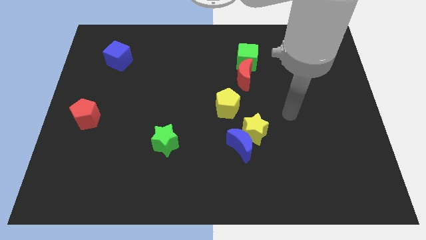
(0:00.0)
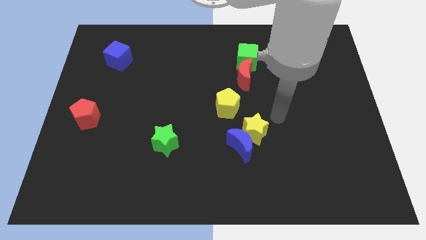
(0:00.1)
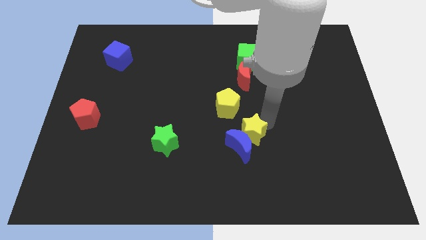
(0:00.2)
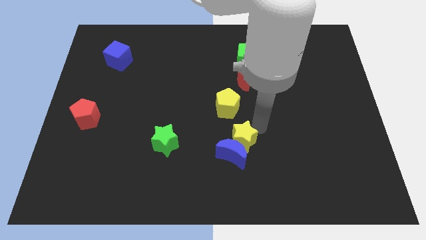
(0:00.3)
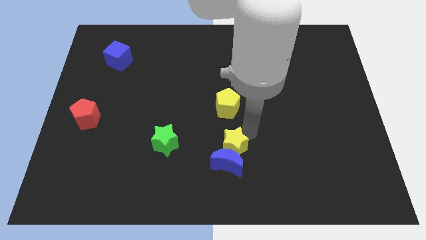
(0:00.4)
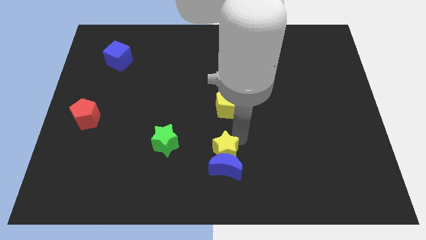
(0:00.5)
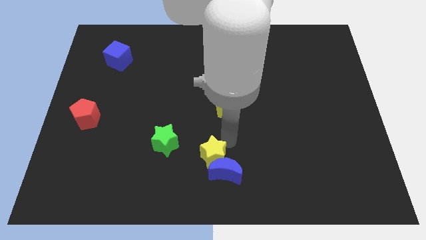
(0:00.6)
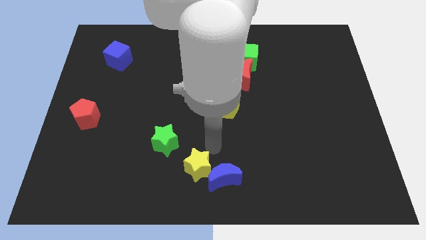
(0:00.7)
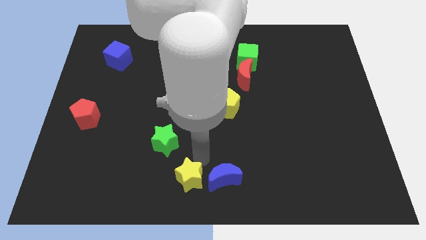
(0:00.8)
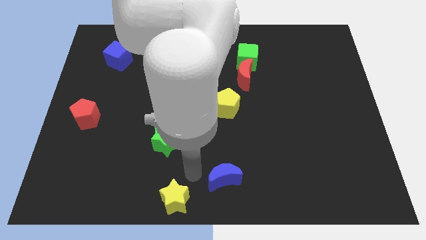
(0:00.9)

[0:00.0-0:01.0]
separate the blue moon from the yellow star

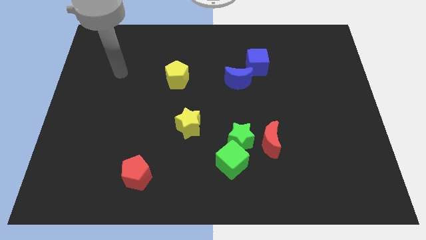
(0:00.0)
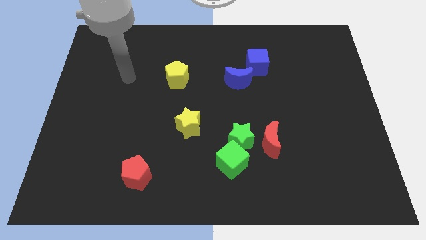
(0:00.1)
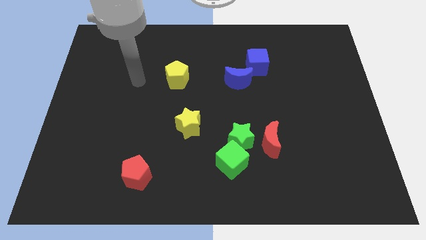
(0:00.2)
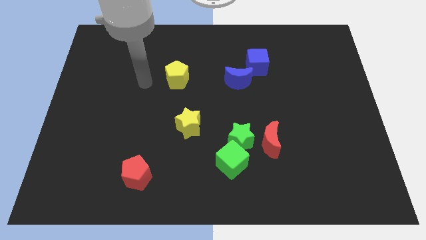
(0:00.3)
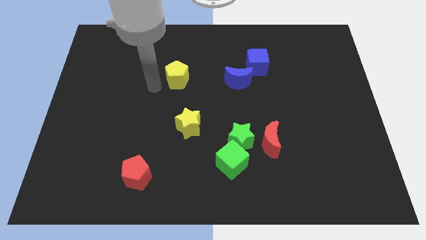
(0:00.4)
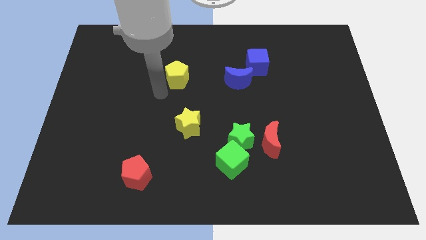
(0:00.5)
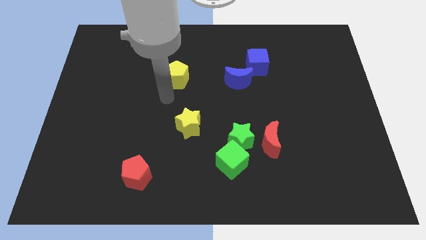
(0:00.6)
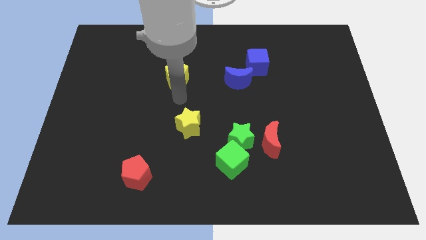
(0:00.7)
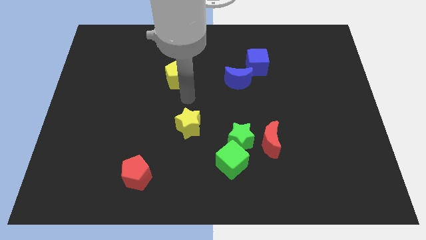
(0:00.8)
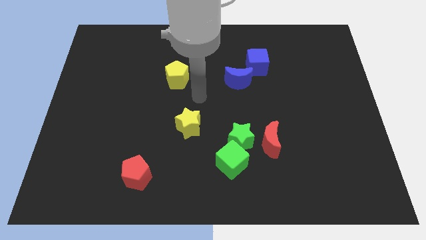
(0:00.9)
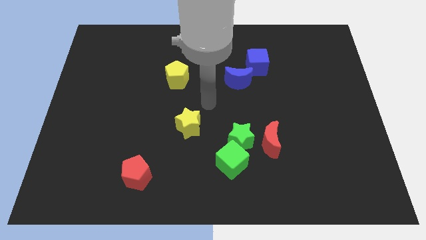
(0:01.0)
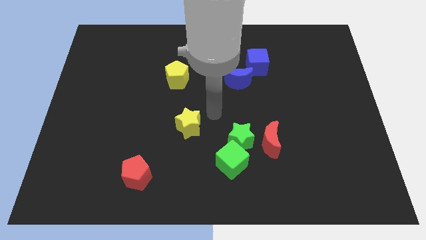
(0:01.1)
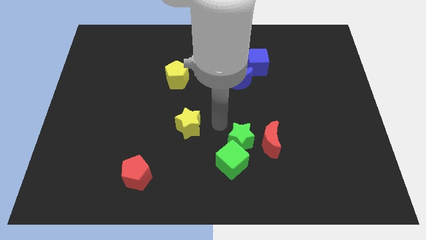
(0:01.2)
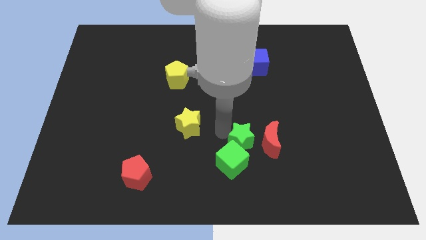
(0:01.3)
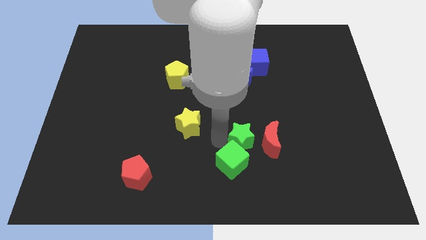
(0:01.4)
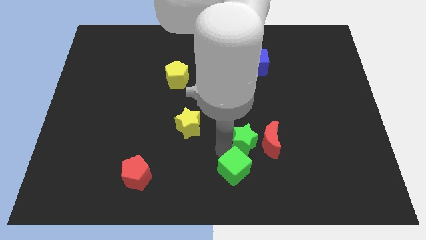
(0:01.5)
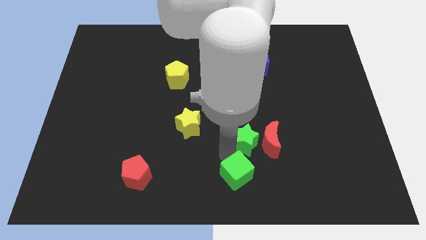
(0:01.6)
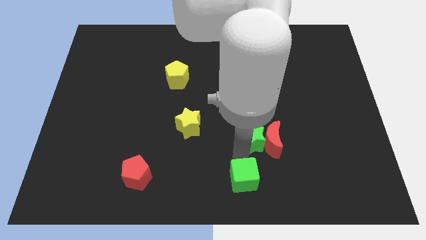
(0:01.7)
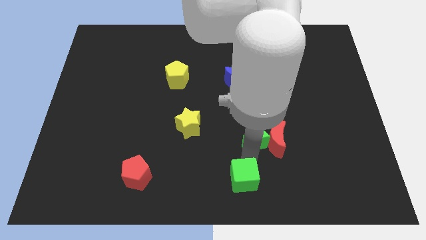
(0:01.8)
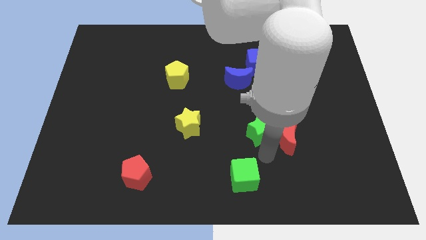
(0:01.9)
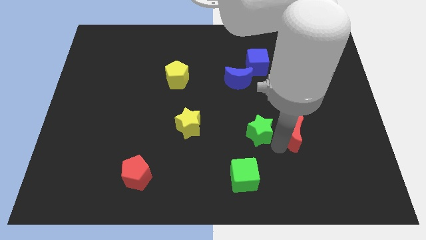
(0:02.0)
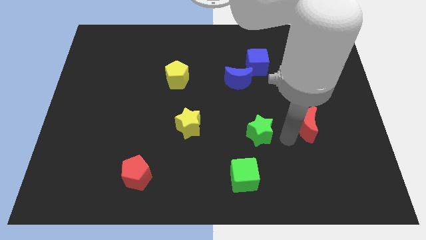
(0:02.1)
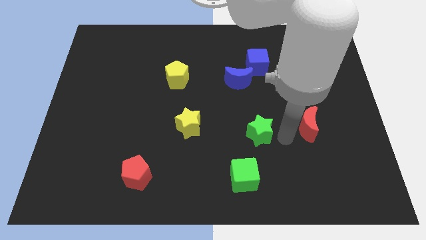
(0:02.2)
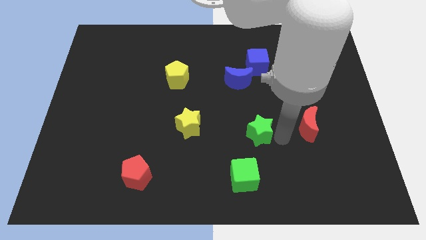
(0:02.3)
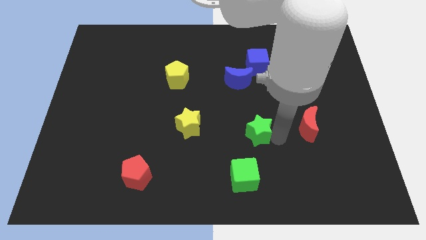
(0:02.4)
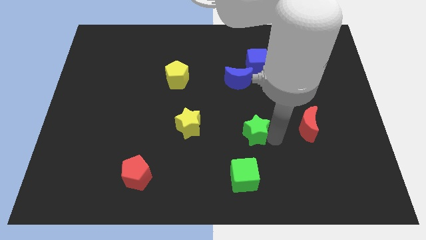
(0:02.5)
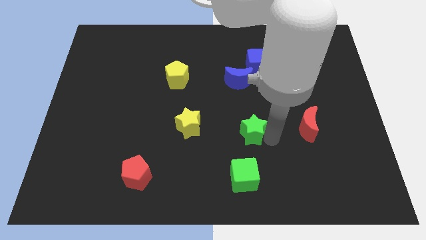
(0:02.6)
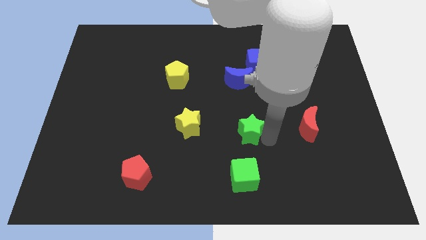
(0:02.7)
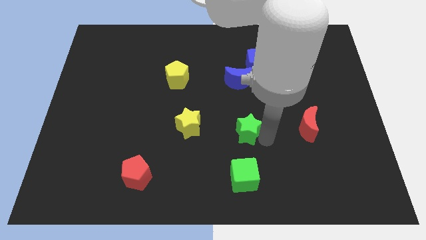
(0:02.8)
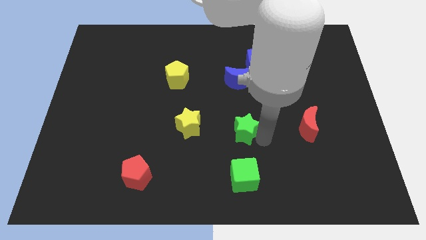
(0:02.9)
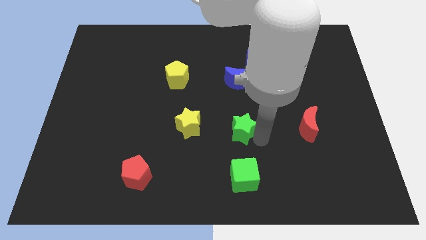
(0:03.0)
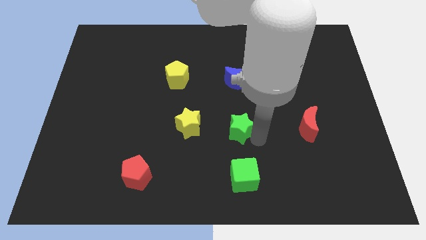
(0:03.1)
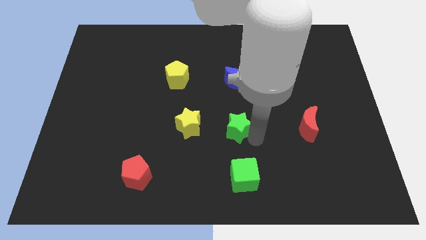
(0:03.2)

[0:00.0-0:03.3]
move the green star away from the green cube and red moon

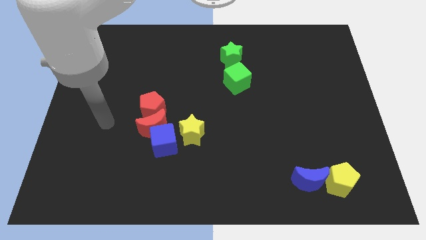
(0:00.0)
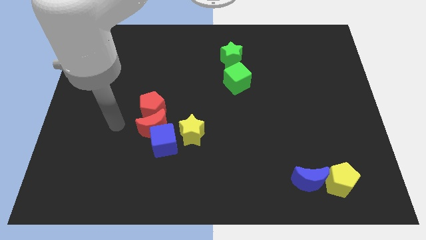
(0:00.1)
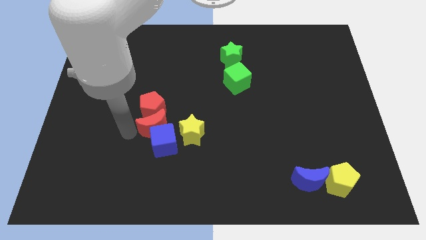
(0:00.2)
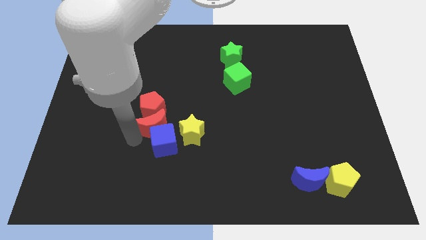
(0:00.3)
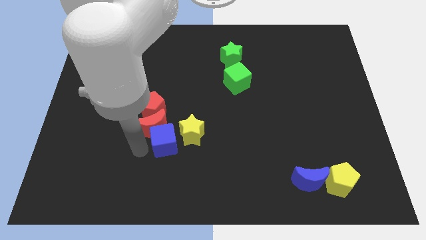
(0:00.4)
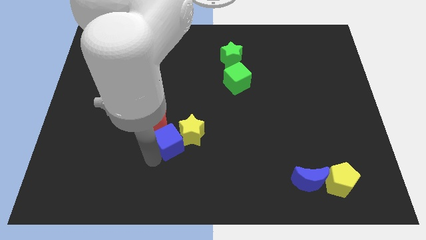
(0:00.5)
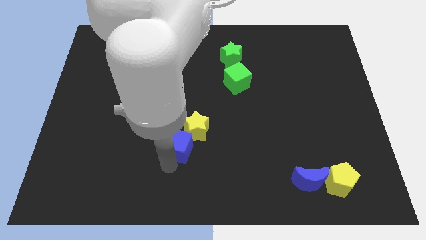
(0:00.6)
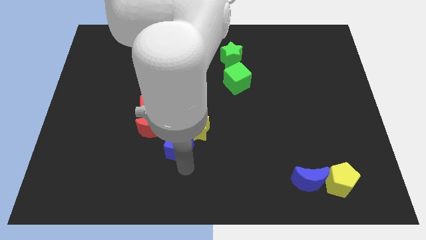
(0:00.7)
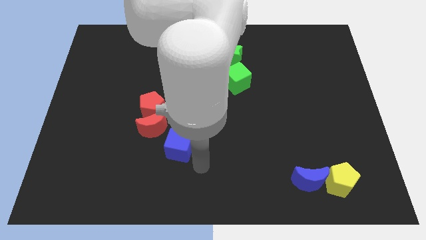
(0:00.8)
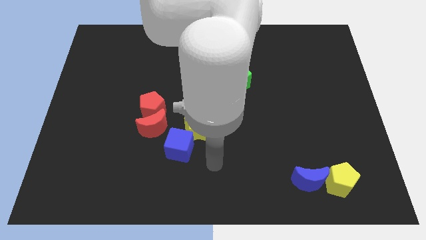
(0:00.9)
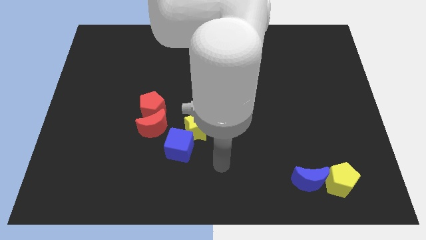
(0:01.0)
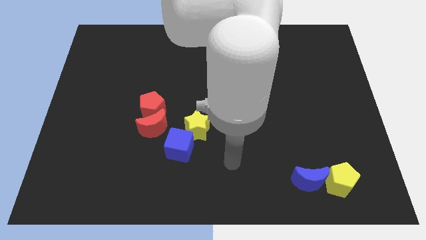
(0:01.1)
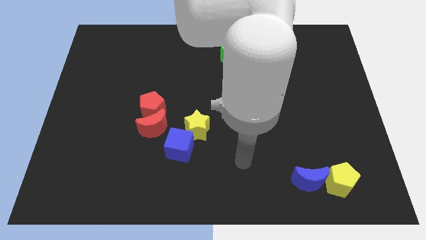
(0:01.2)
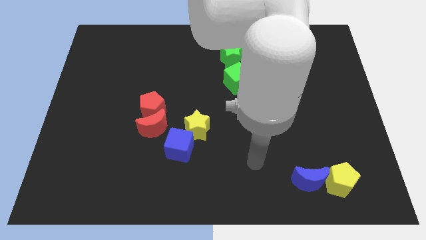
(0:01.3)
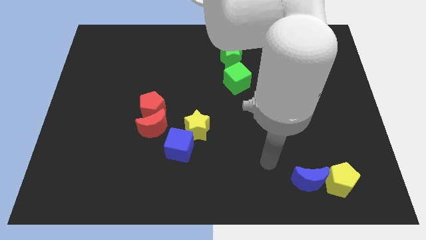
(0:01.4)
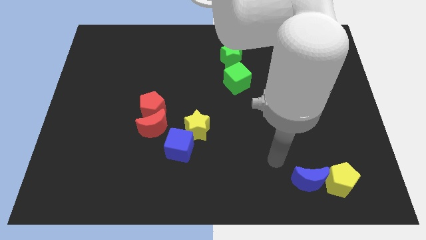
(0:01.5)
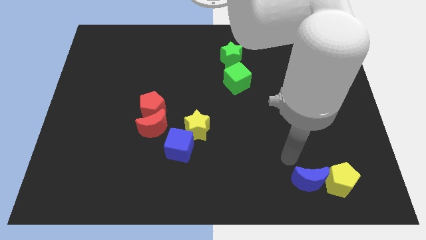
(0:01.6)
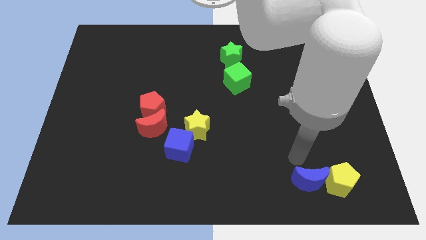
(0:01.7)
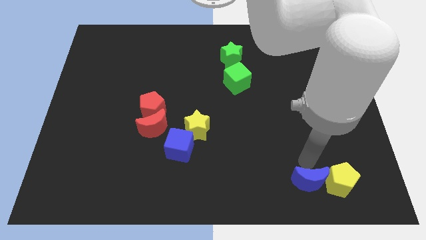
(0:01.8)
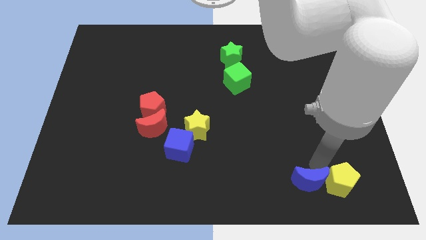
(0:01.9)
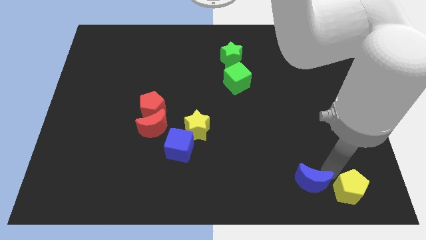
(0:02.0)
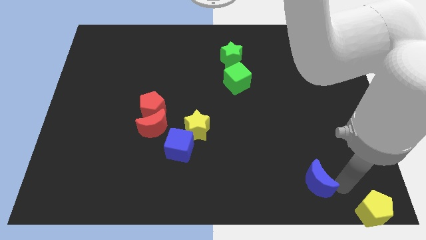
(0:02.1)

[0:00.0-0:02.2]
move the blue moon away from the yellow pentagon

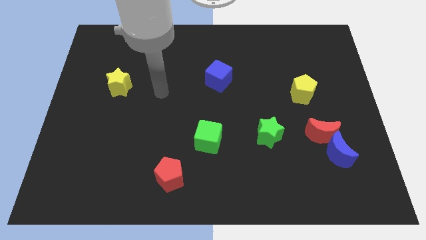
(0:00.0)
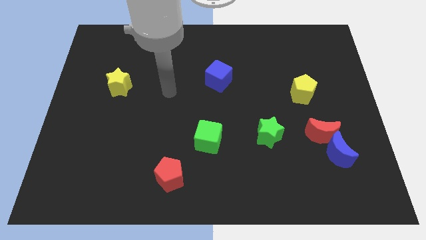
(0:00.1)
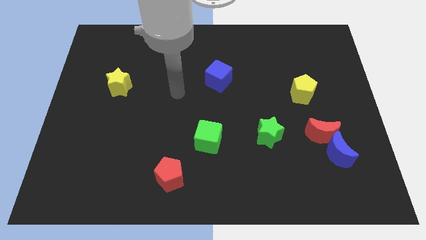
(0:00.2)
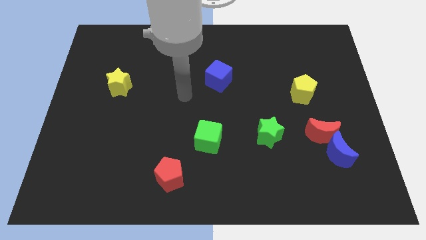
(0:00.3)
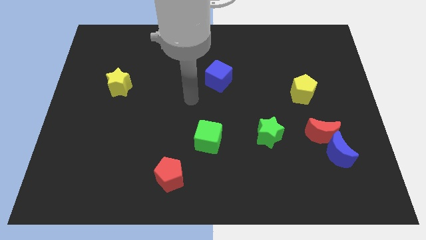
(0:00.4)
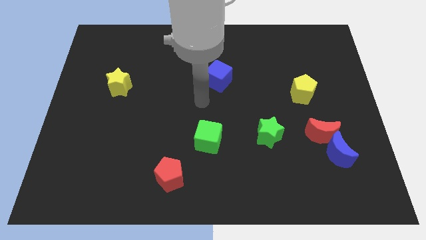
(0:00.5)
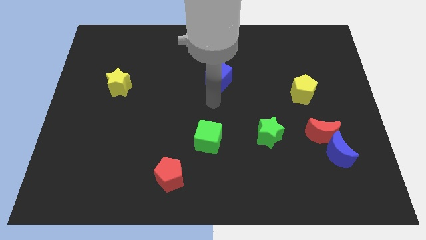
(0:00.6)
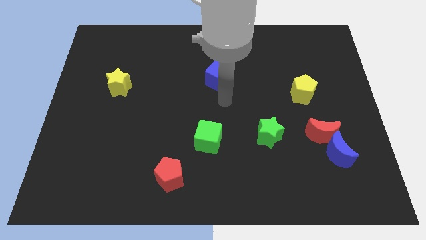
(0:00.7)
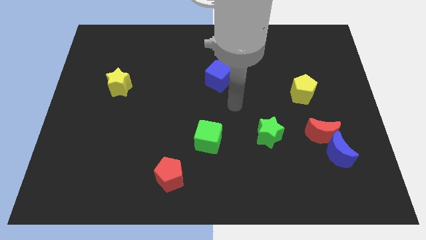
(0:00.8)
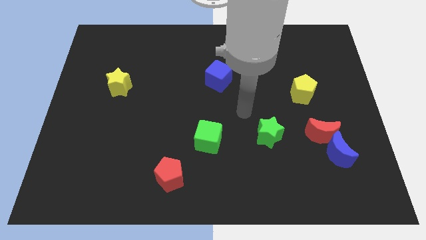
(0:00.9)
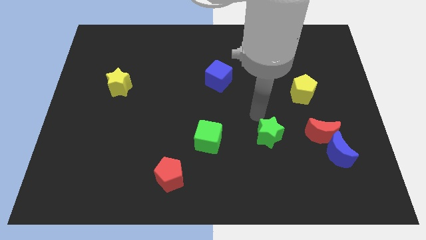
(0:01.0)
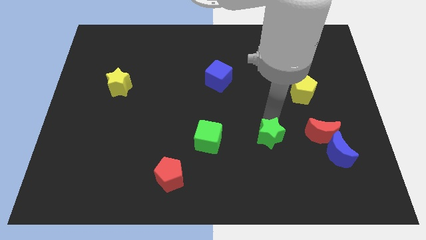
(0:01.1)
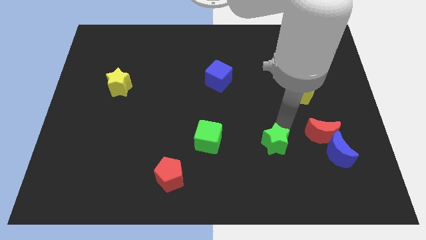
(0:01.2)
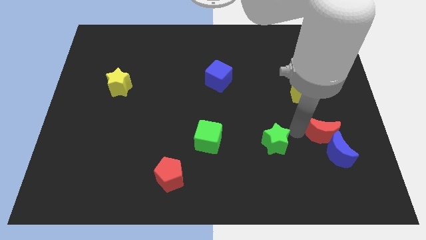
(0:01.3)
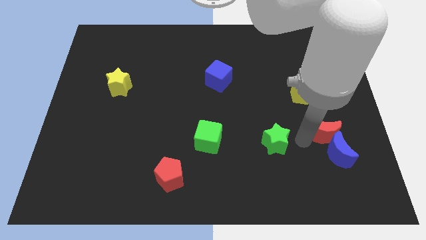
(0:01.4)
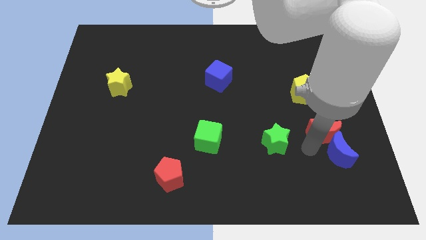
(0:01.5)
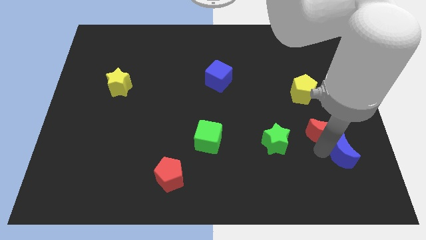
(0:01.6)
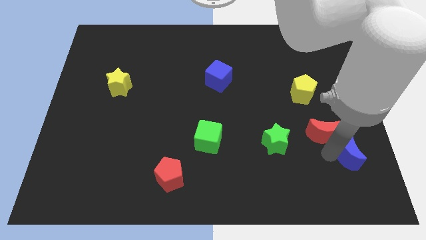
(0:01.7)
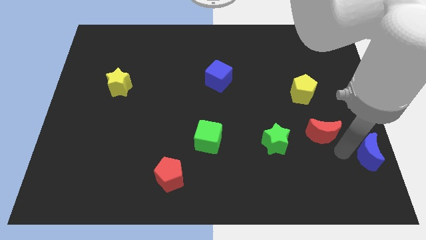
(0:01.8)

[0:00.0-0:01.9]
pull the red moon apart from the blue moon

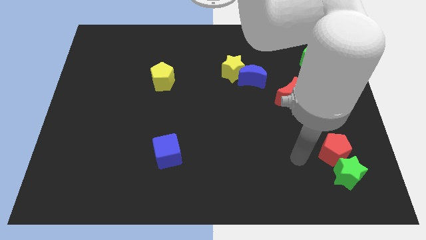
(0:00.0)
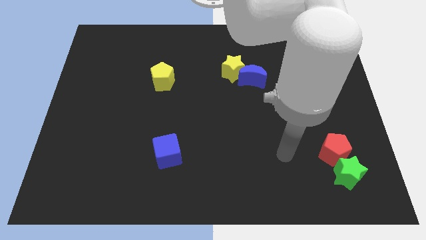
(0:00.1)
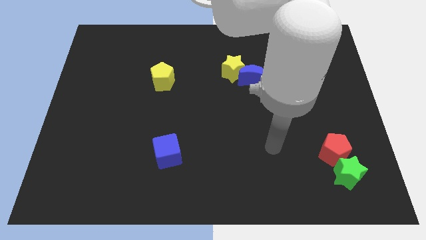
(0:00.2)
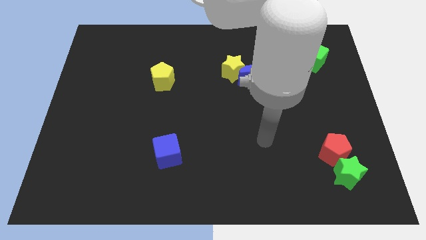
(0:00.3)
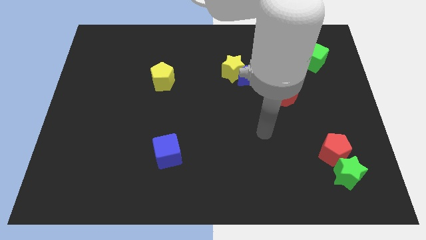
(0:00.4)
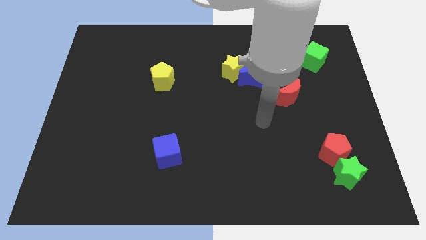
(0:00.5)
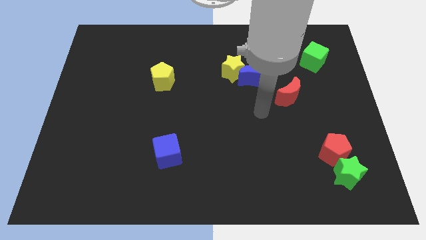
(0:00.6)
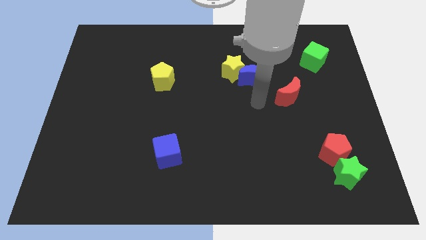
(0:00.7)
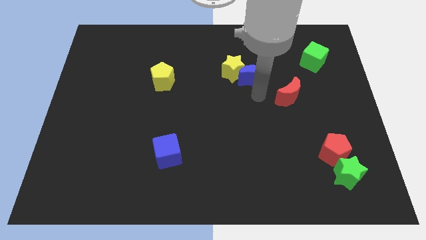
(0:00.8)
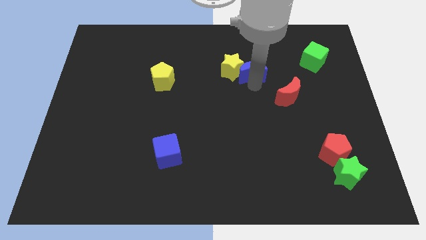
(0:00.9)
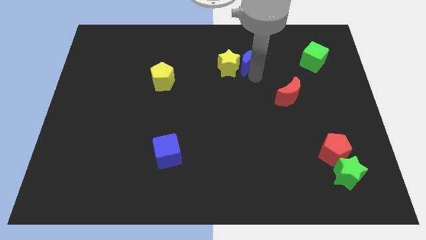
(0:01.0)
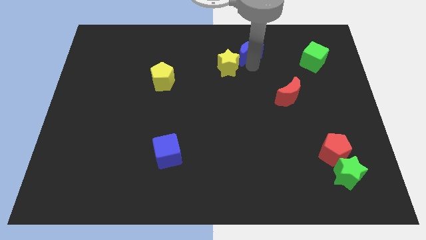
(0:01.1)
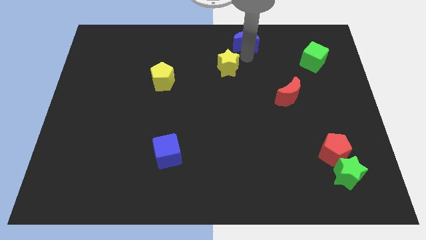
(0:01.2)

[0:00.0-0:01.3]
pull the yellow star apart from the blue moon
